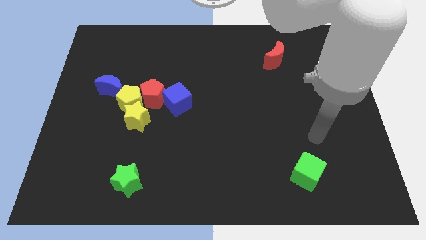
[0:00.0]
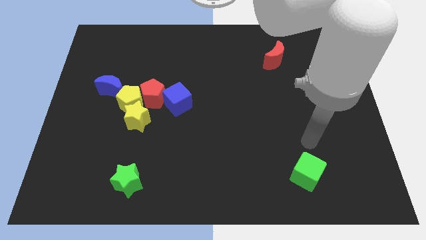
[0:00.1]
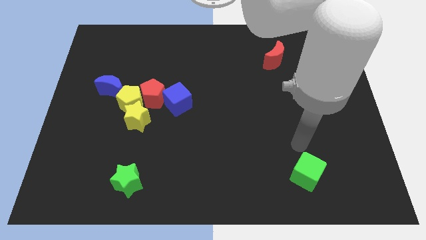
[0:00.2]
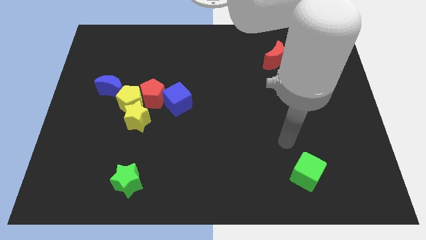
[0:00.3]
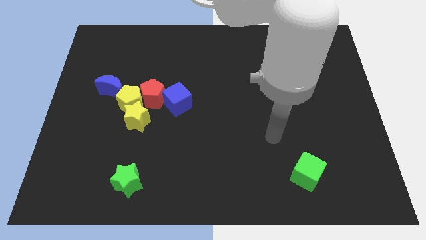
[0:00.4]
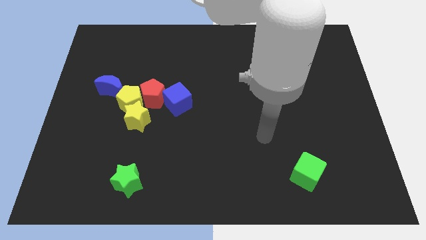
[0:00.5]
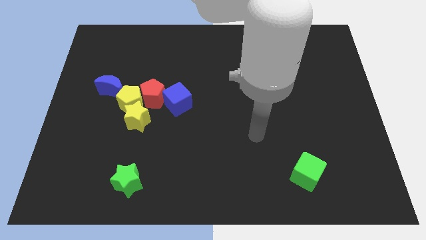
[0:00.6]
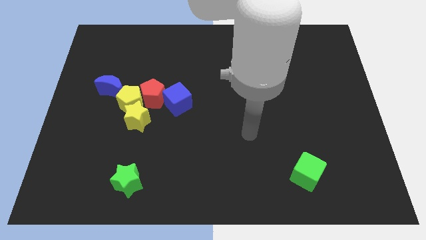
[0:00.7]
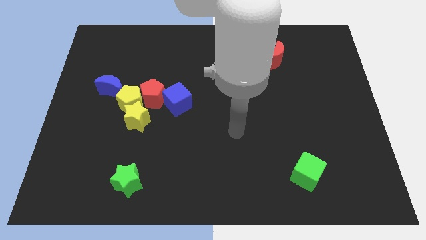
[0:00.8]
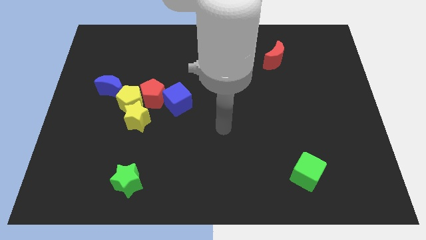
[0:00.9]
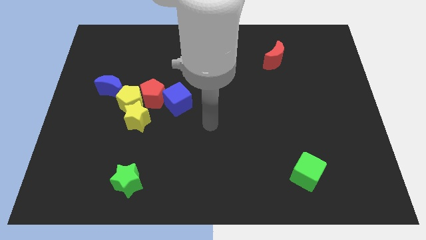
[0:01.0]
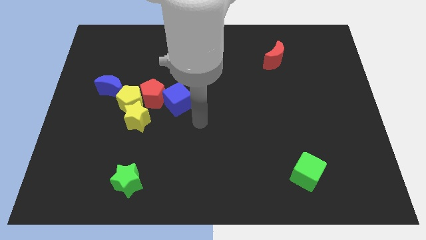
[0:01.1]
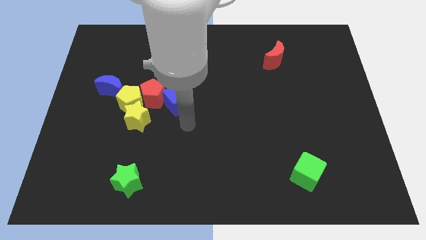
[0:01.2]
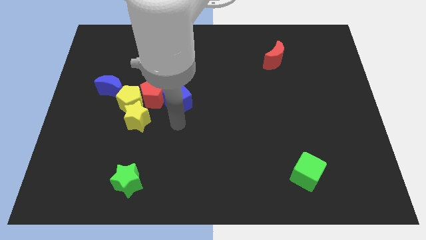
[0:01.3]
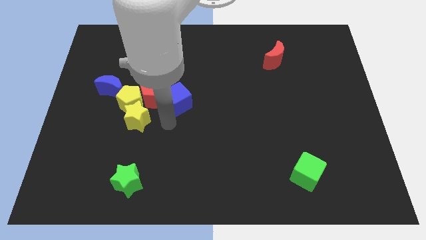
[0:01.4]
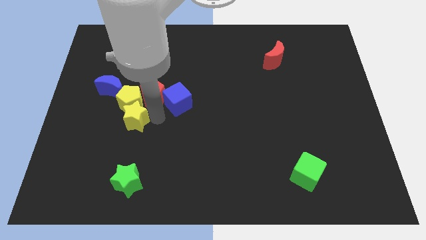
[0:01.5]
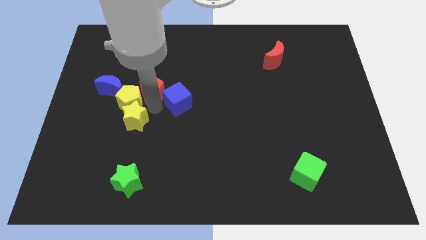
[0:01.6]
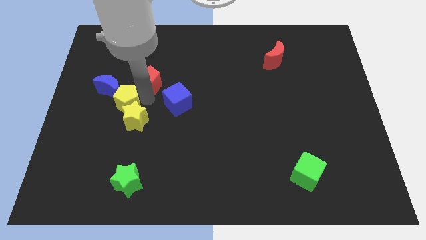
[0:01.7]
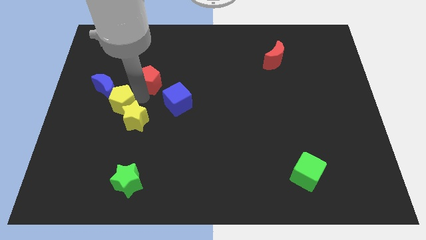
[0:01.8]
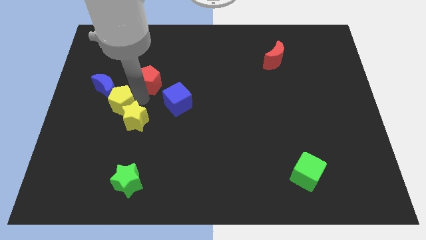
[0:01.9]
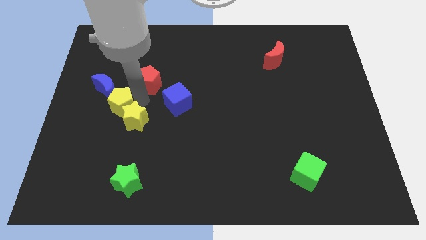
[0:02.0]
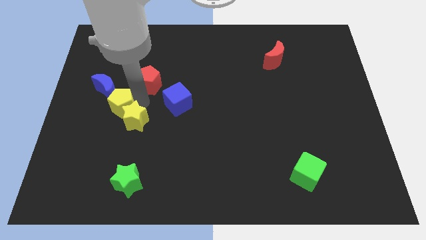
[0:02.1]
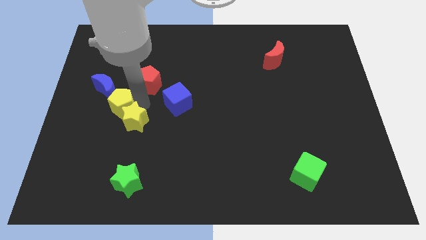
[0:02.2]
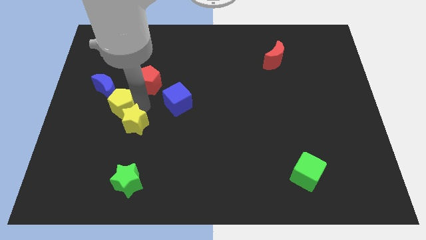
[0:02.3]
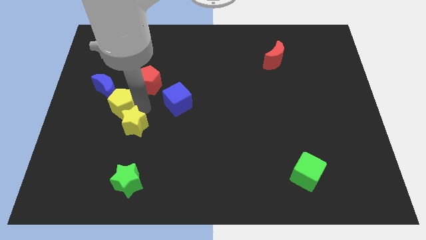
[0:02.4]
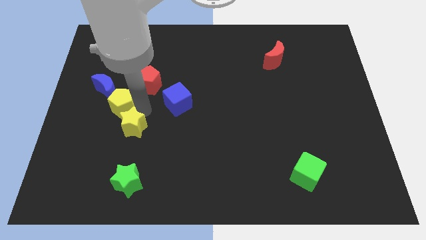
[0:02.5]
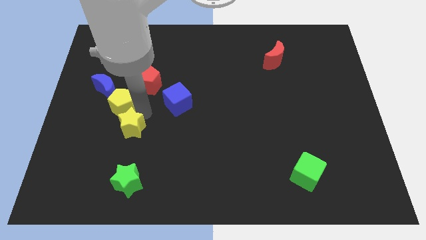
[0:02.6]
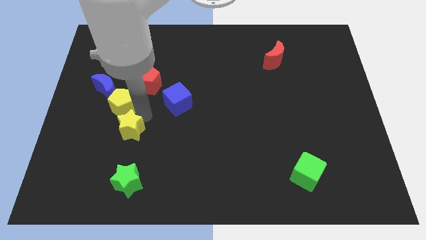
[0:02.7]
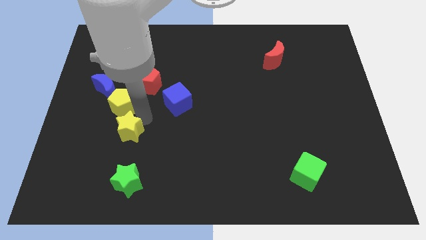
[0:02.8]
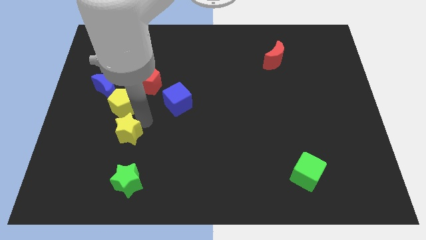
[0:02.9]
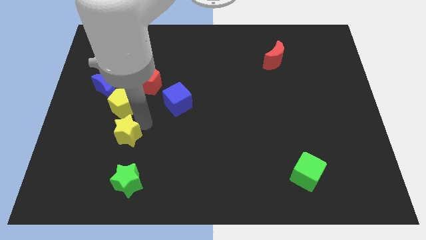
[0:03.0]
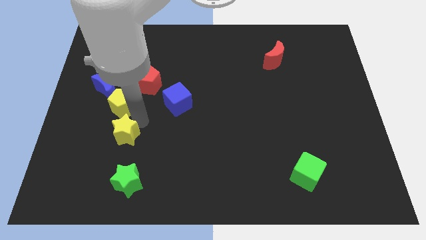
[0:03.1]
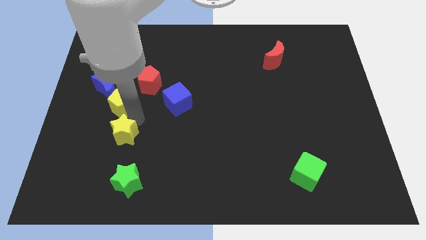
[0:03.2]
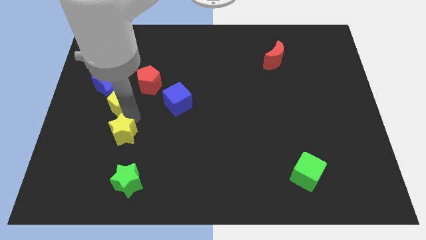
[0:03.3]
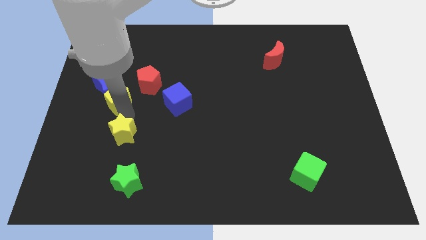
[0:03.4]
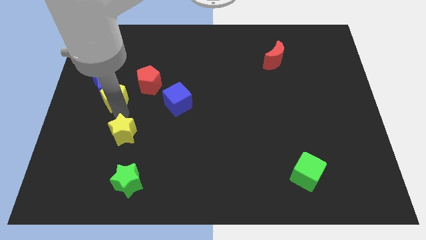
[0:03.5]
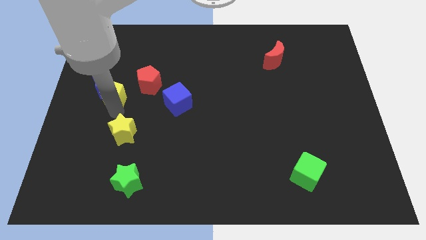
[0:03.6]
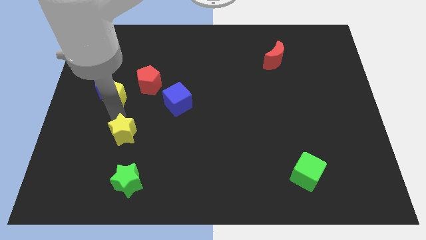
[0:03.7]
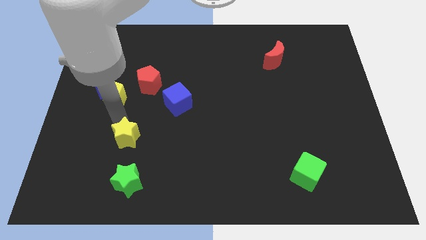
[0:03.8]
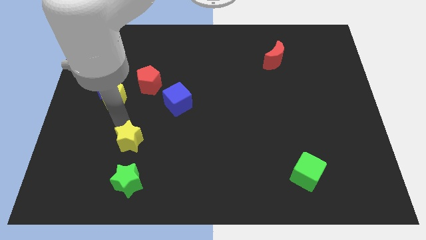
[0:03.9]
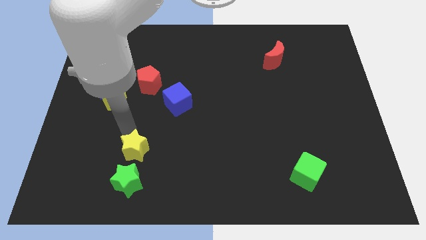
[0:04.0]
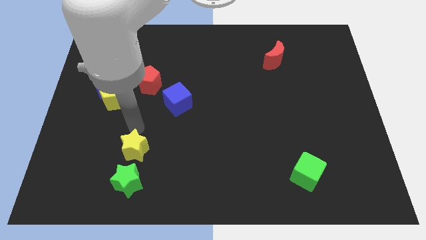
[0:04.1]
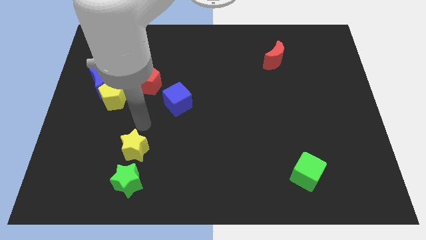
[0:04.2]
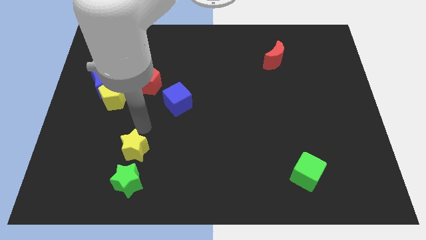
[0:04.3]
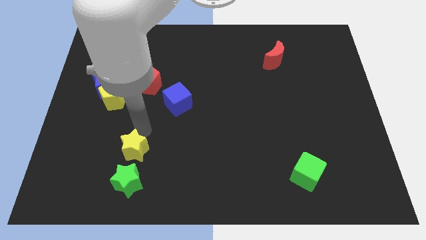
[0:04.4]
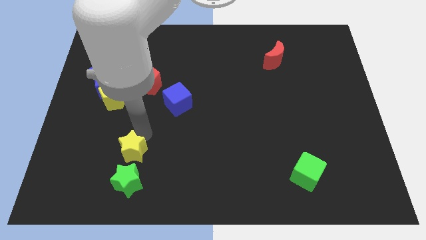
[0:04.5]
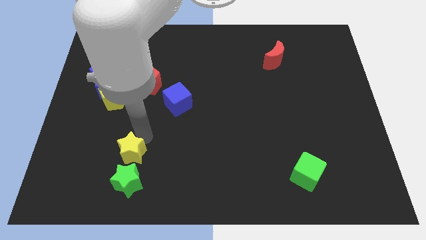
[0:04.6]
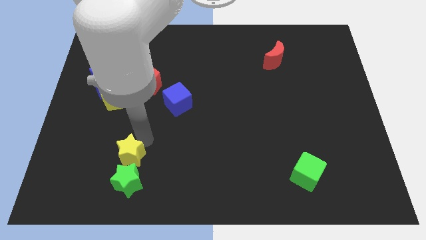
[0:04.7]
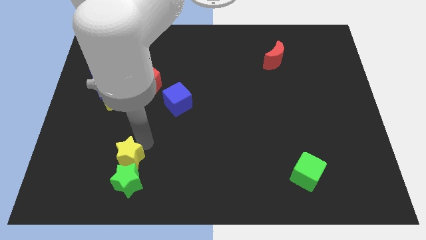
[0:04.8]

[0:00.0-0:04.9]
push the yellow star towards the green star

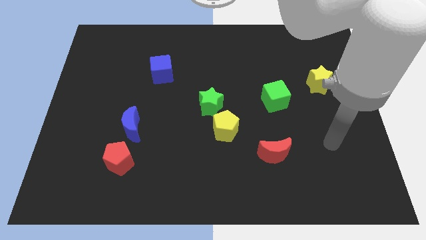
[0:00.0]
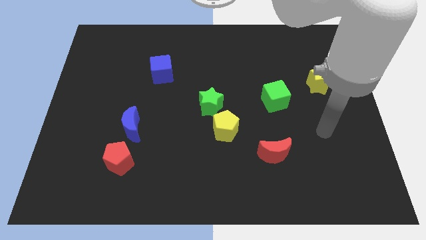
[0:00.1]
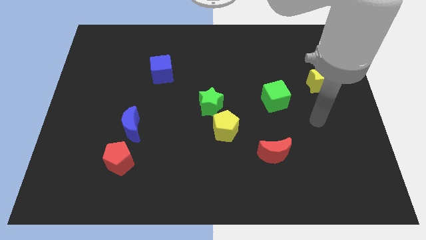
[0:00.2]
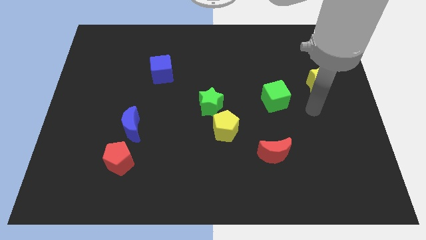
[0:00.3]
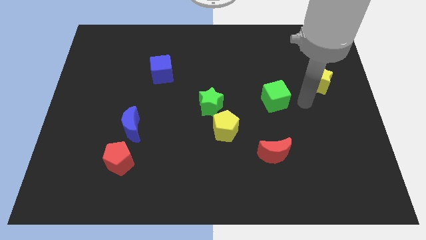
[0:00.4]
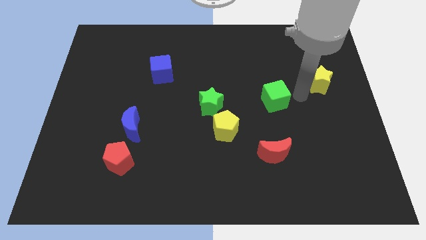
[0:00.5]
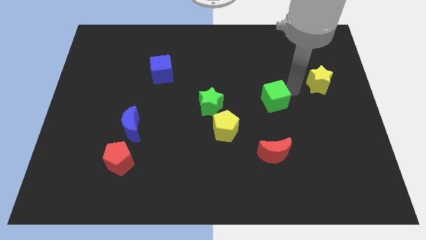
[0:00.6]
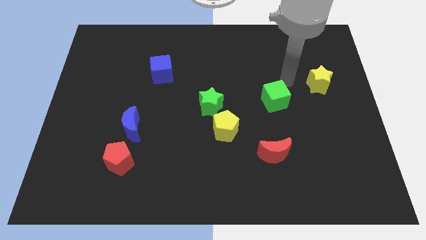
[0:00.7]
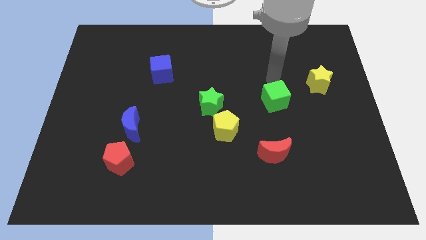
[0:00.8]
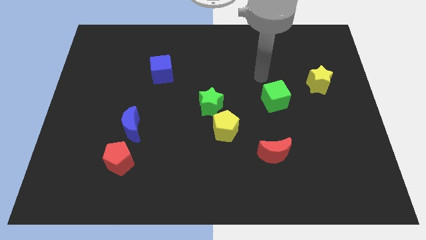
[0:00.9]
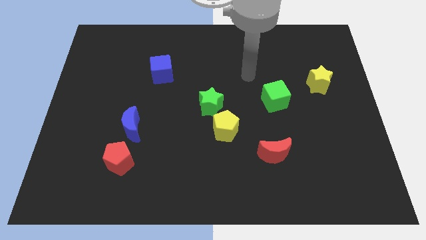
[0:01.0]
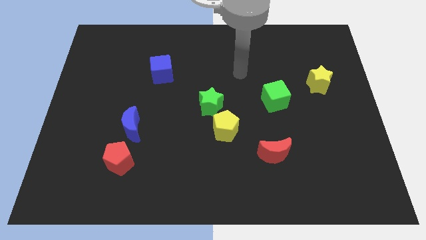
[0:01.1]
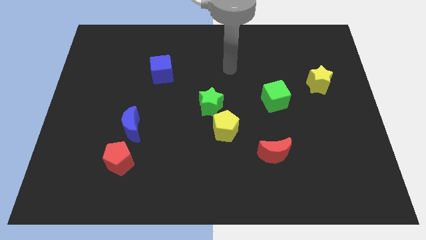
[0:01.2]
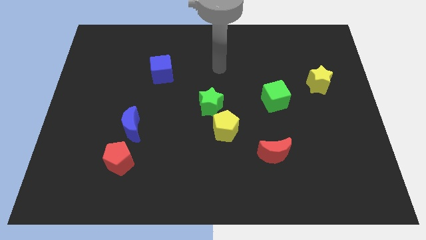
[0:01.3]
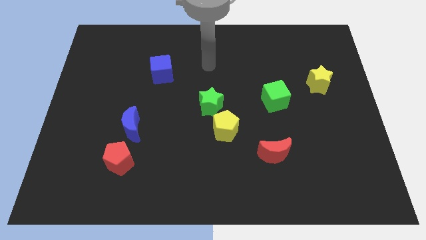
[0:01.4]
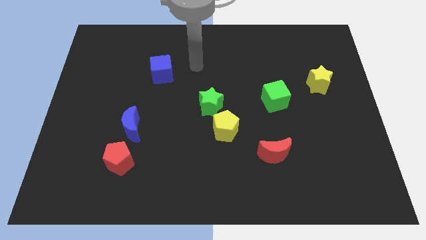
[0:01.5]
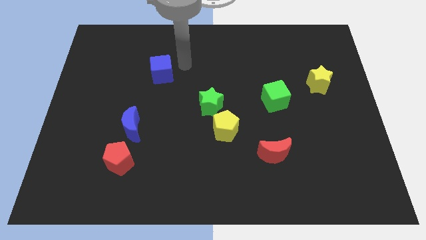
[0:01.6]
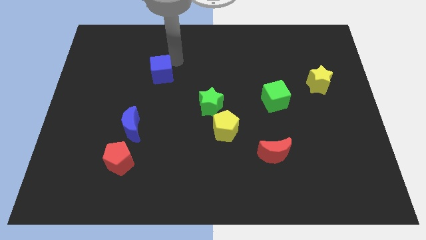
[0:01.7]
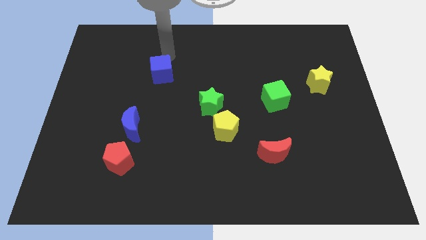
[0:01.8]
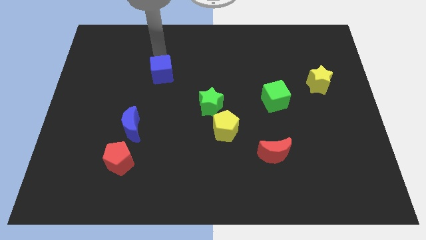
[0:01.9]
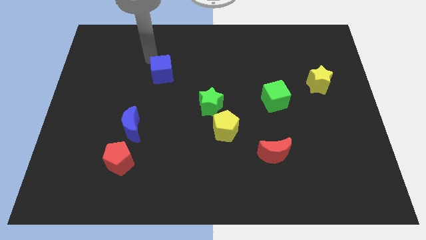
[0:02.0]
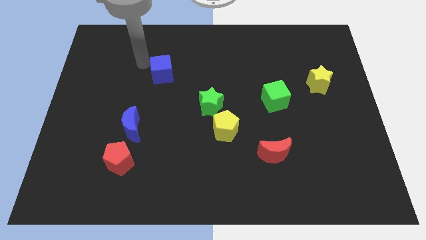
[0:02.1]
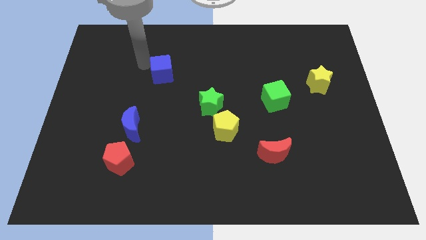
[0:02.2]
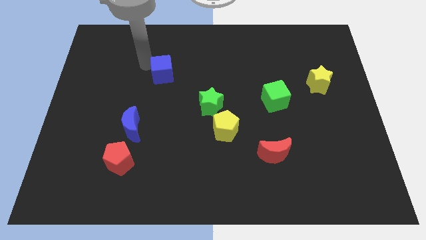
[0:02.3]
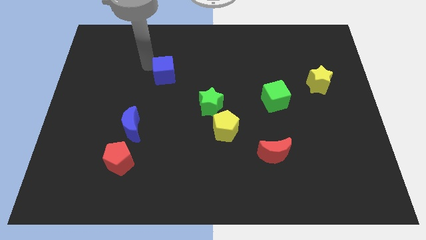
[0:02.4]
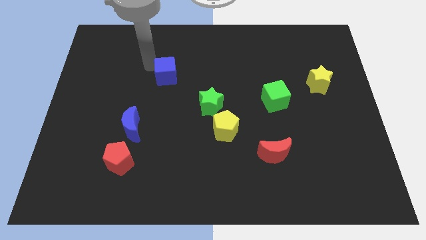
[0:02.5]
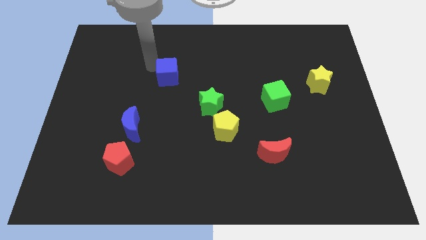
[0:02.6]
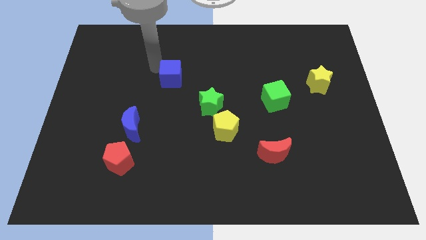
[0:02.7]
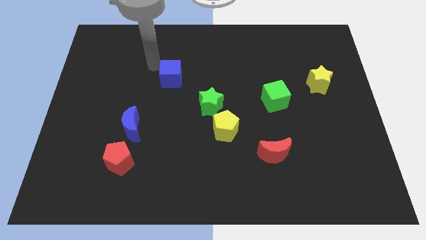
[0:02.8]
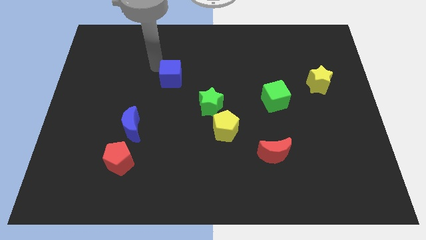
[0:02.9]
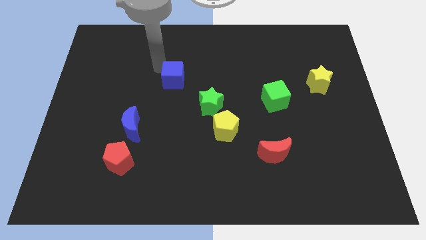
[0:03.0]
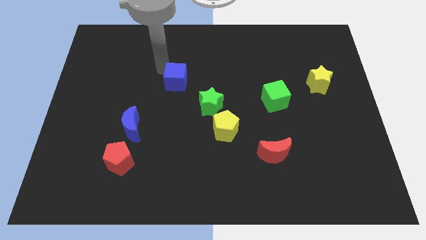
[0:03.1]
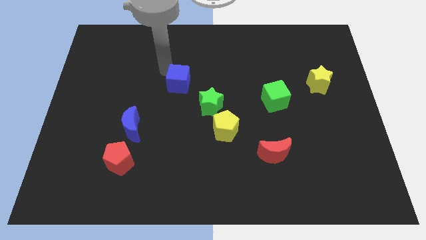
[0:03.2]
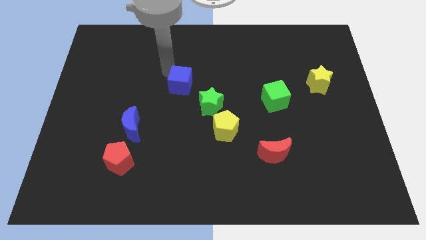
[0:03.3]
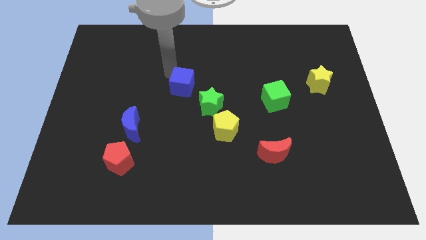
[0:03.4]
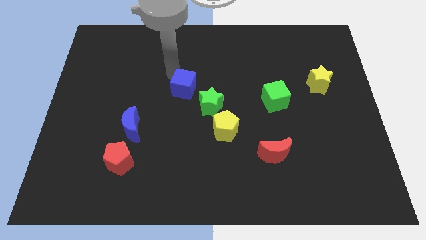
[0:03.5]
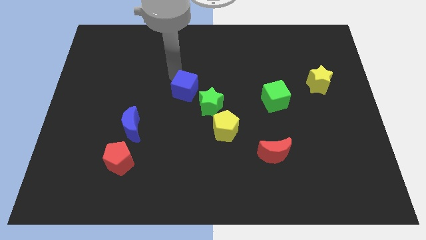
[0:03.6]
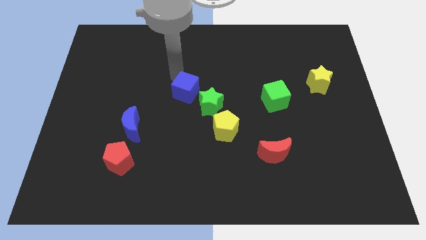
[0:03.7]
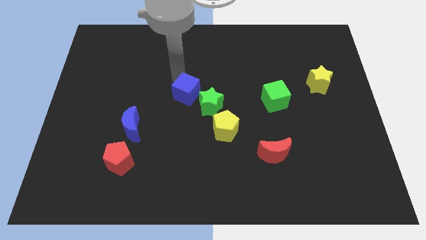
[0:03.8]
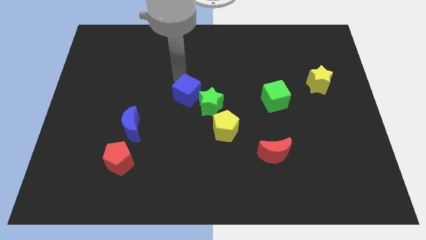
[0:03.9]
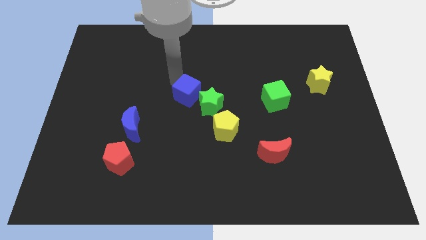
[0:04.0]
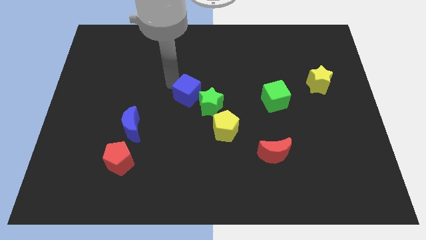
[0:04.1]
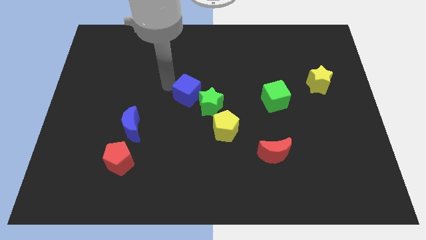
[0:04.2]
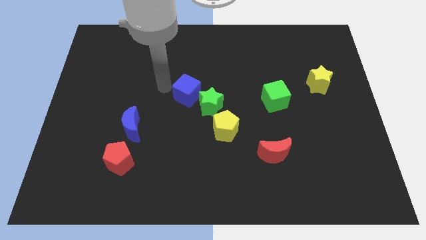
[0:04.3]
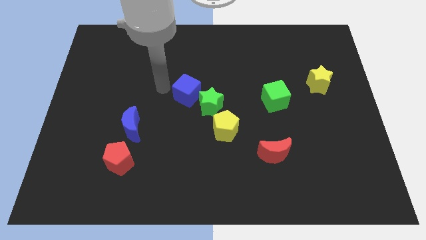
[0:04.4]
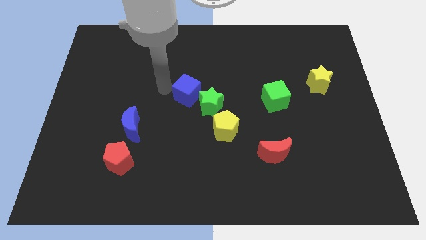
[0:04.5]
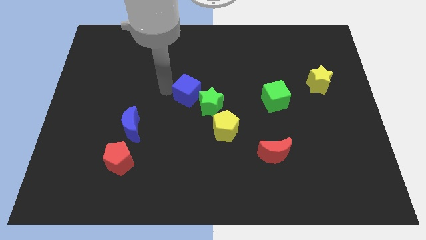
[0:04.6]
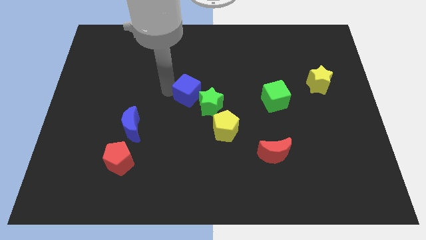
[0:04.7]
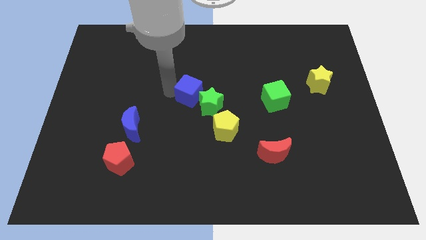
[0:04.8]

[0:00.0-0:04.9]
put the blue cube towards the green star
